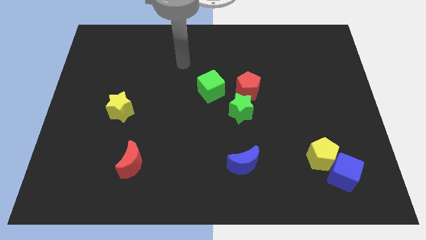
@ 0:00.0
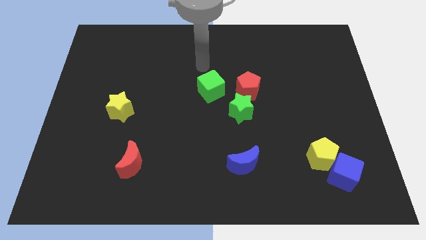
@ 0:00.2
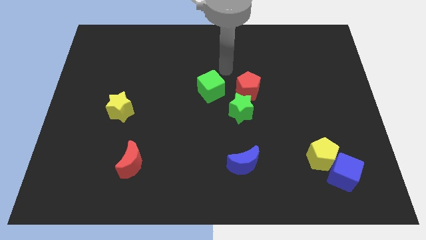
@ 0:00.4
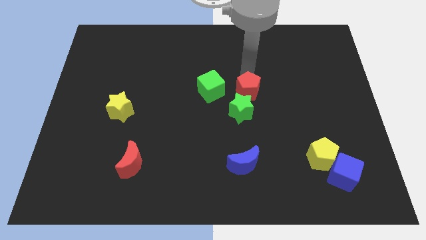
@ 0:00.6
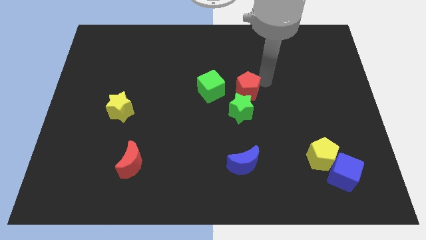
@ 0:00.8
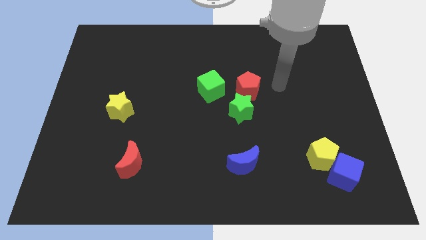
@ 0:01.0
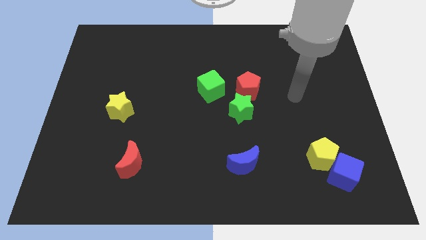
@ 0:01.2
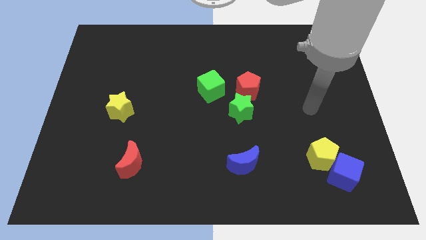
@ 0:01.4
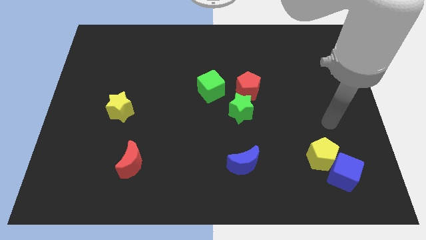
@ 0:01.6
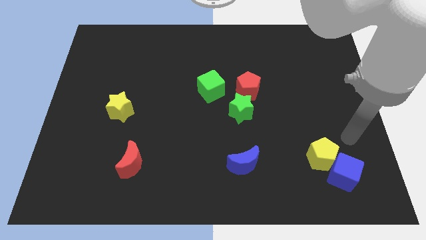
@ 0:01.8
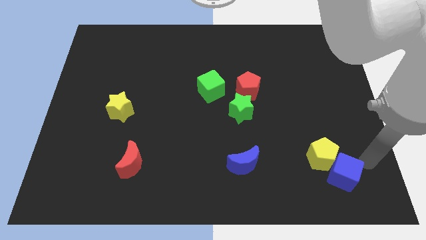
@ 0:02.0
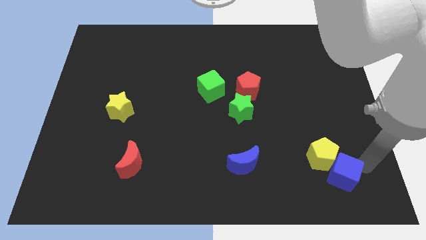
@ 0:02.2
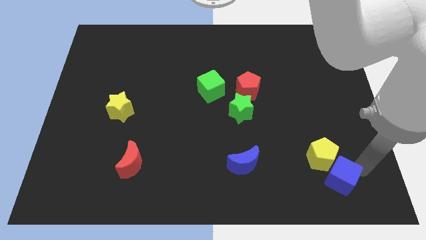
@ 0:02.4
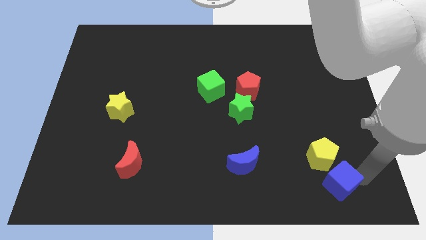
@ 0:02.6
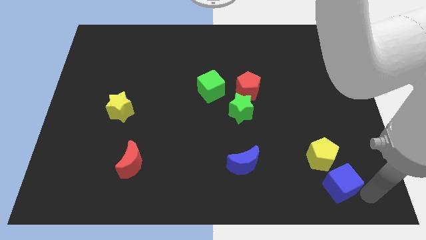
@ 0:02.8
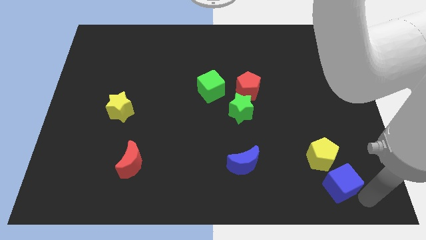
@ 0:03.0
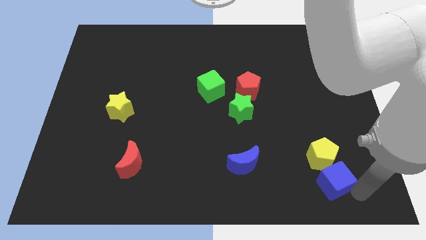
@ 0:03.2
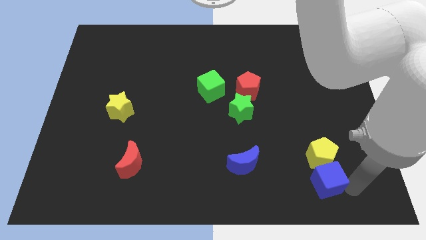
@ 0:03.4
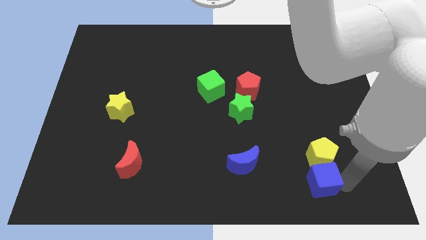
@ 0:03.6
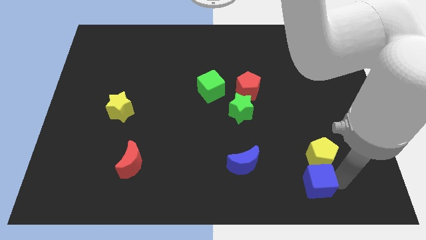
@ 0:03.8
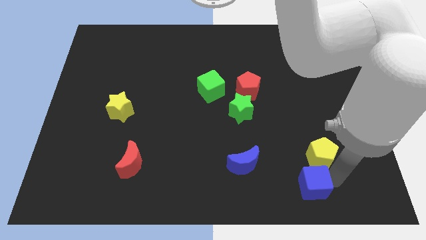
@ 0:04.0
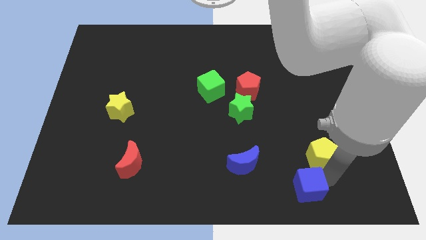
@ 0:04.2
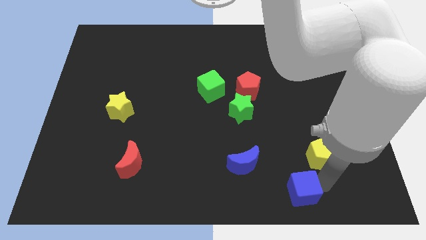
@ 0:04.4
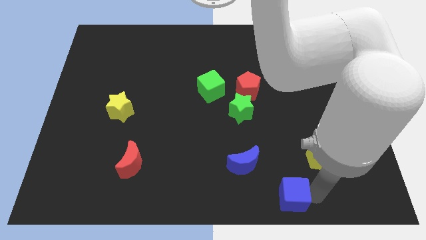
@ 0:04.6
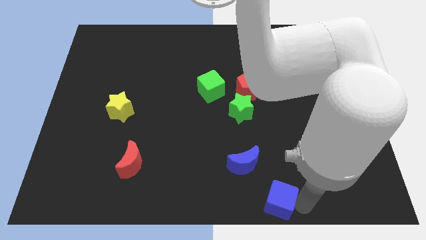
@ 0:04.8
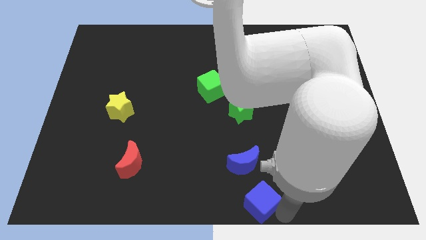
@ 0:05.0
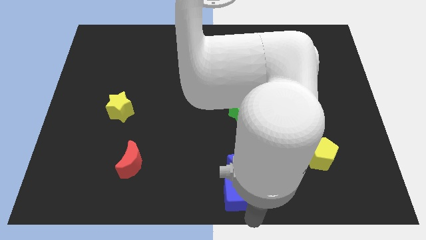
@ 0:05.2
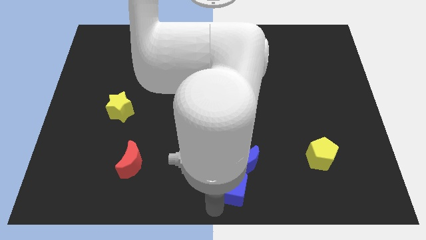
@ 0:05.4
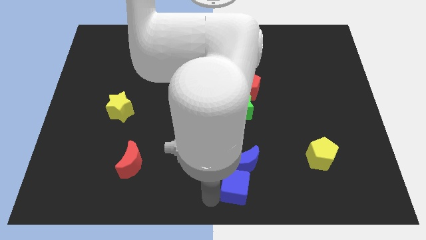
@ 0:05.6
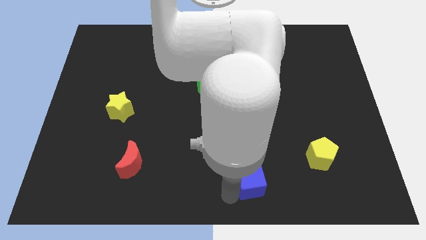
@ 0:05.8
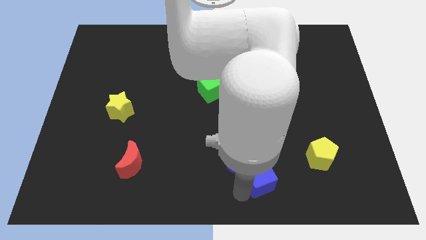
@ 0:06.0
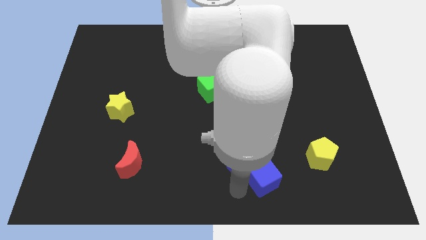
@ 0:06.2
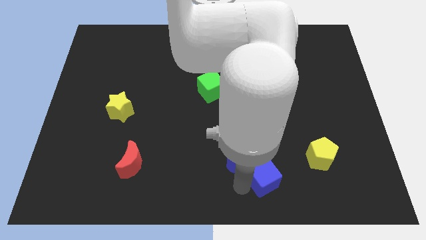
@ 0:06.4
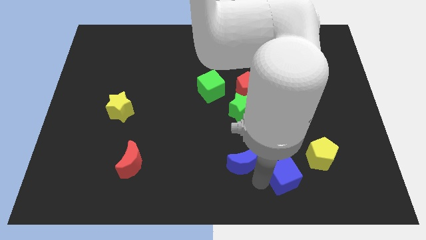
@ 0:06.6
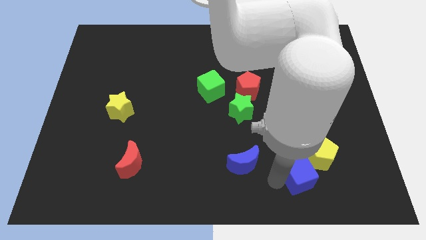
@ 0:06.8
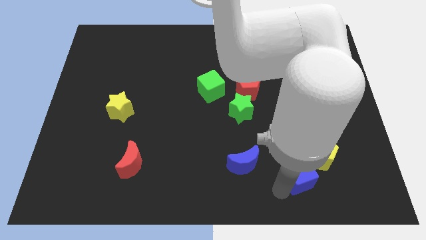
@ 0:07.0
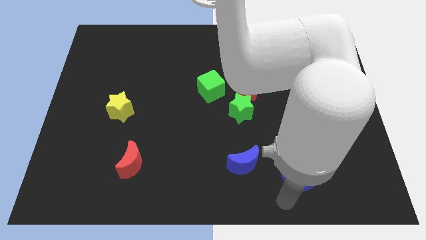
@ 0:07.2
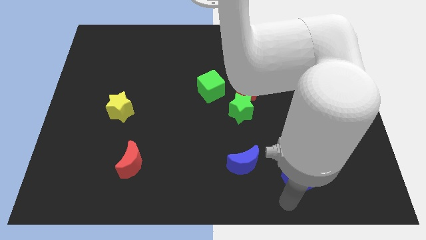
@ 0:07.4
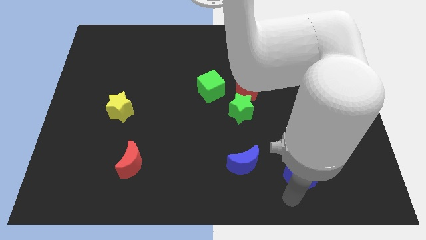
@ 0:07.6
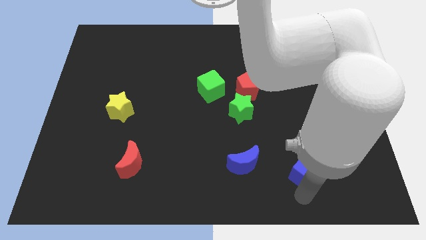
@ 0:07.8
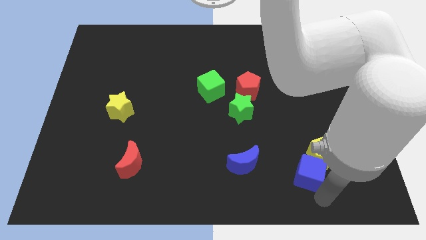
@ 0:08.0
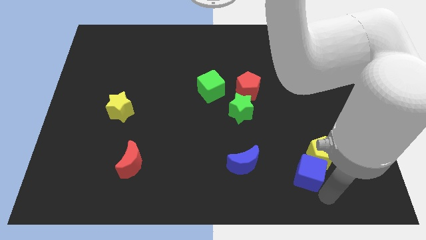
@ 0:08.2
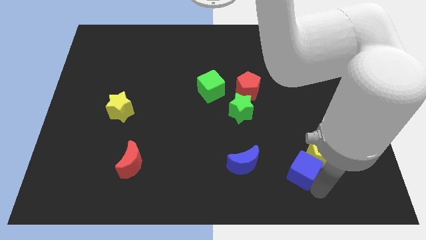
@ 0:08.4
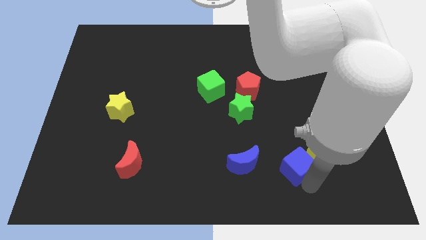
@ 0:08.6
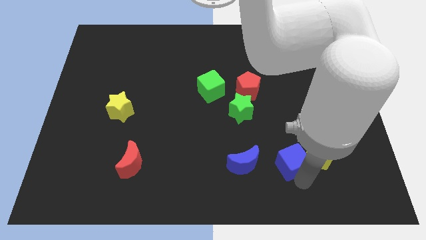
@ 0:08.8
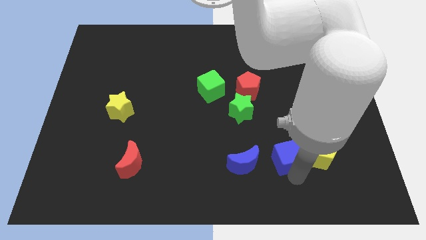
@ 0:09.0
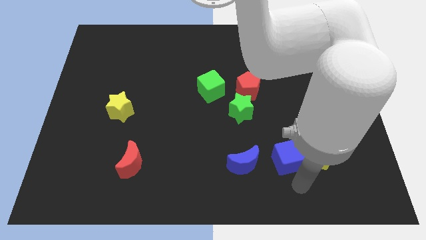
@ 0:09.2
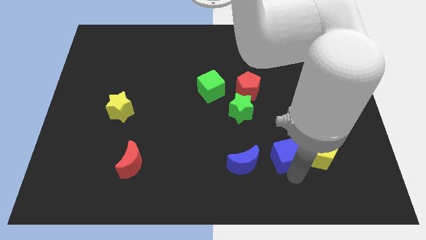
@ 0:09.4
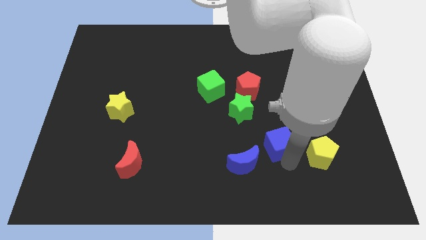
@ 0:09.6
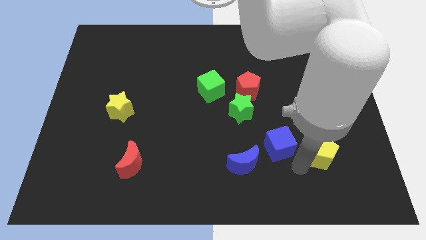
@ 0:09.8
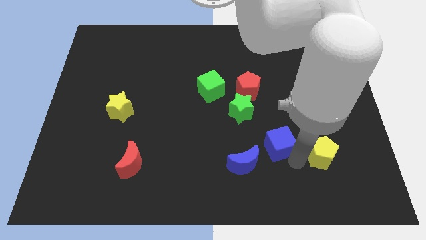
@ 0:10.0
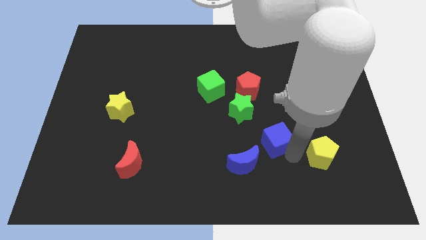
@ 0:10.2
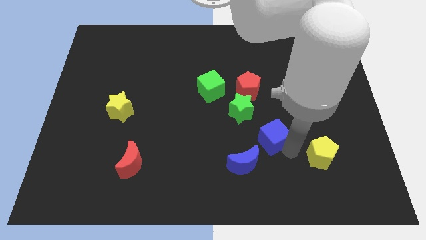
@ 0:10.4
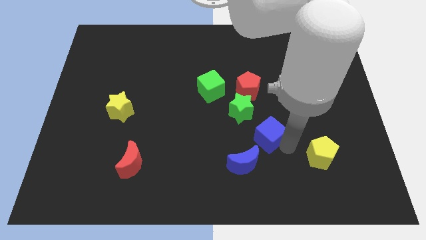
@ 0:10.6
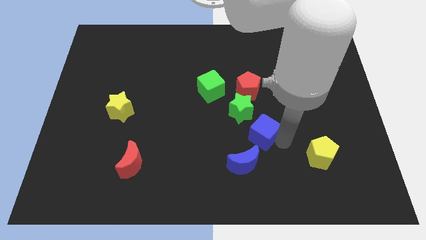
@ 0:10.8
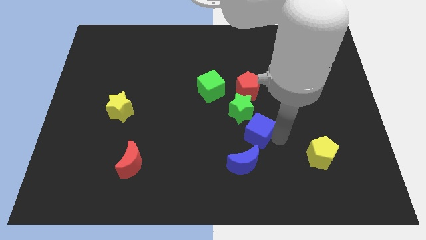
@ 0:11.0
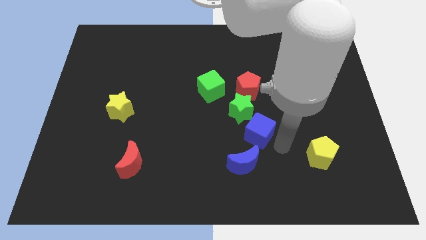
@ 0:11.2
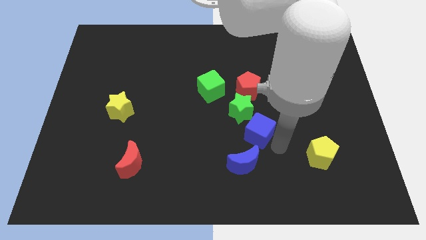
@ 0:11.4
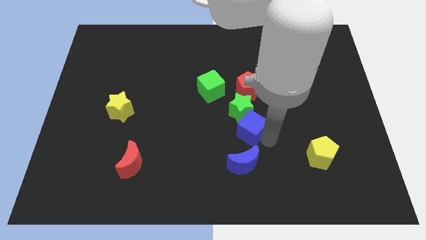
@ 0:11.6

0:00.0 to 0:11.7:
put the blue cube next to the green star

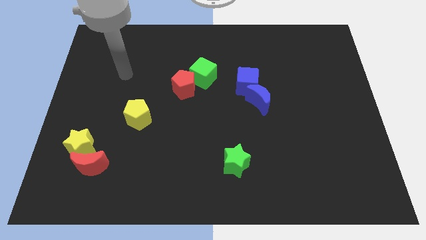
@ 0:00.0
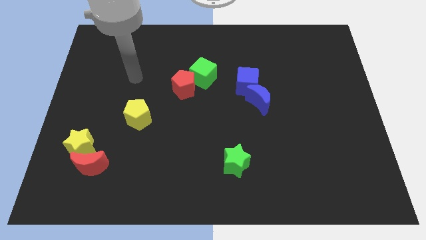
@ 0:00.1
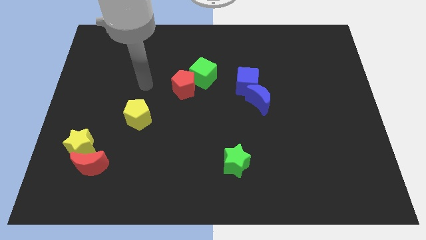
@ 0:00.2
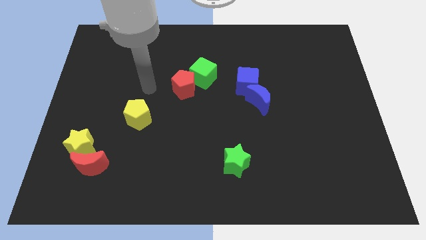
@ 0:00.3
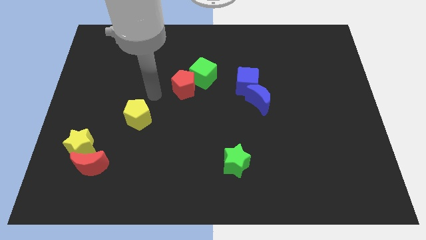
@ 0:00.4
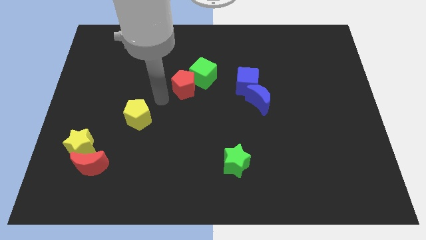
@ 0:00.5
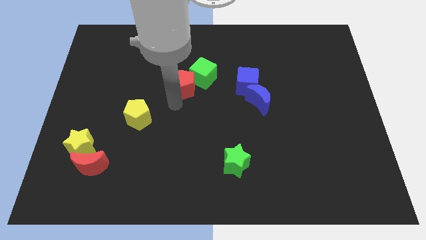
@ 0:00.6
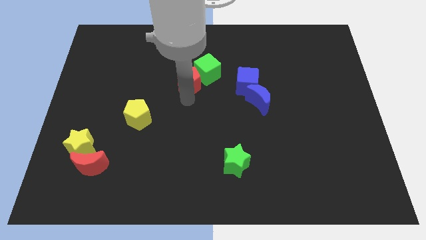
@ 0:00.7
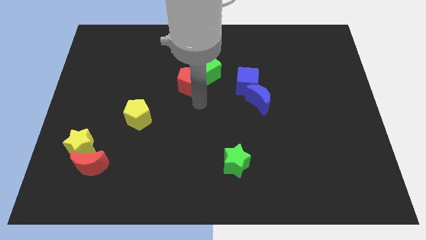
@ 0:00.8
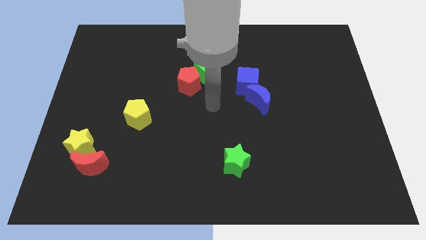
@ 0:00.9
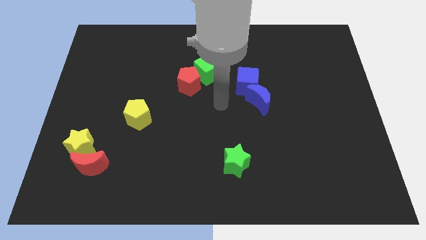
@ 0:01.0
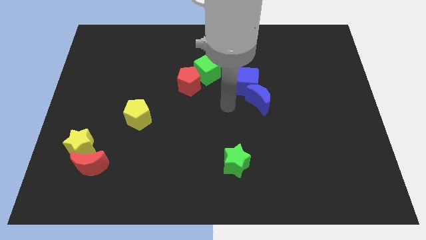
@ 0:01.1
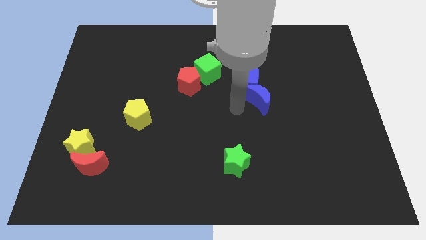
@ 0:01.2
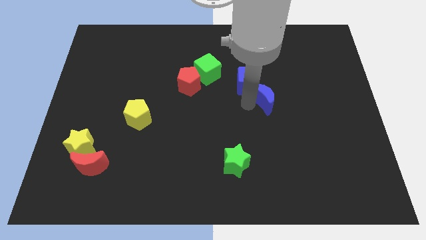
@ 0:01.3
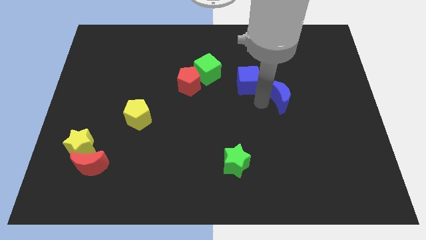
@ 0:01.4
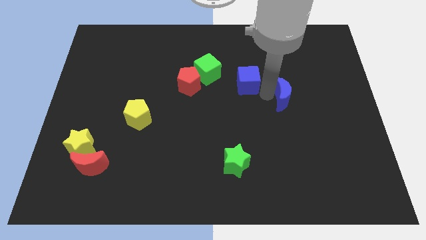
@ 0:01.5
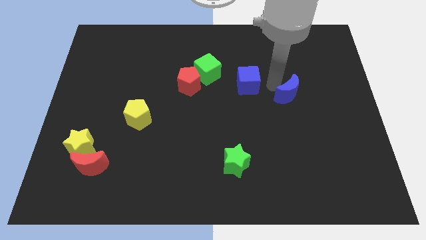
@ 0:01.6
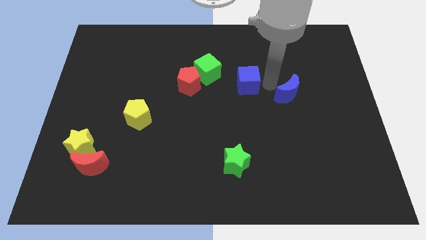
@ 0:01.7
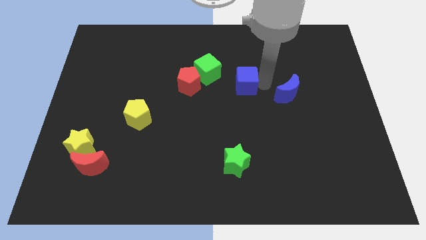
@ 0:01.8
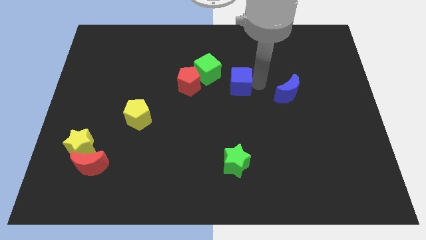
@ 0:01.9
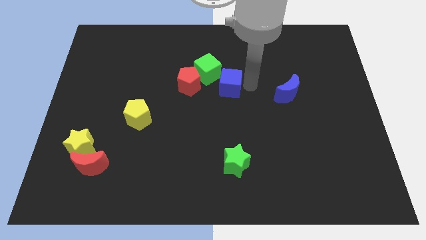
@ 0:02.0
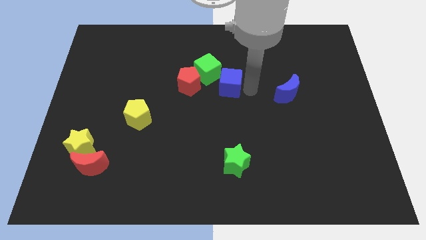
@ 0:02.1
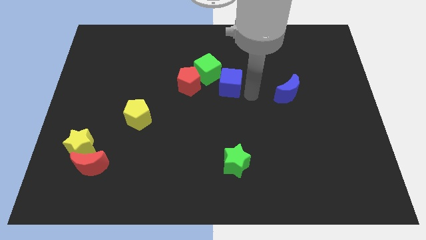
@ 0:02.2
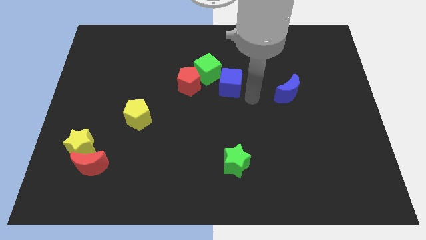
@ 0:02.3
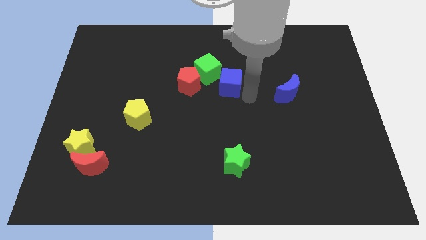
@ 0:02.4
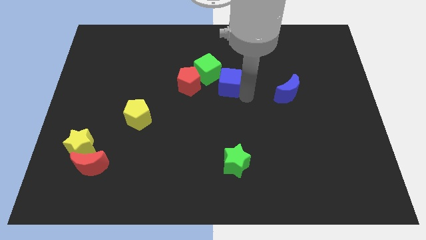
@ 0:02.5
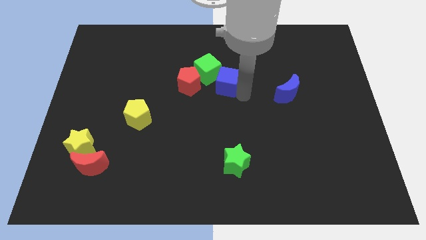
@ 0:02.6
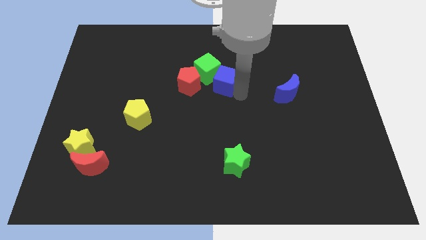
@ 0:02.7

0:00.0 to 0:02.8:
slide the blue cube next to the green cube
